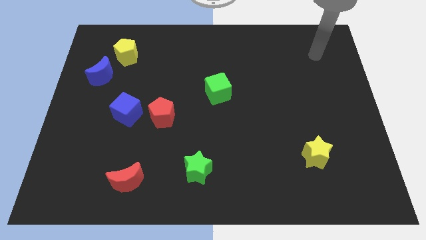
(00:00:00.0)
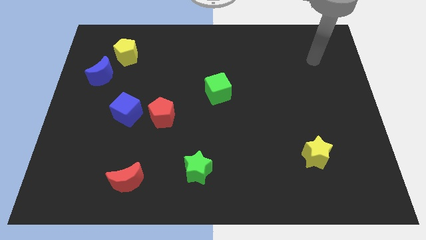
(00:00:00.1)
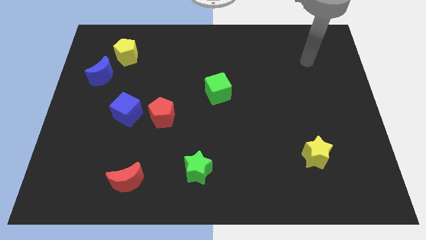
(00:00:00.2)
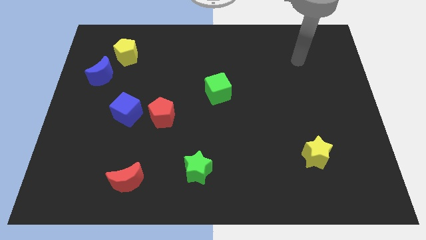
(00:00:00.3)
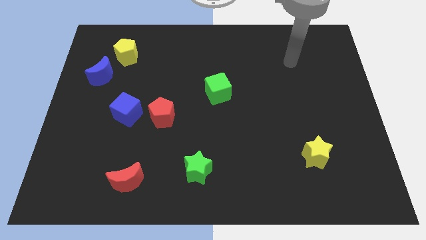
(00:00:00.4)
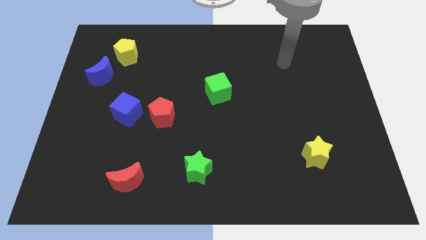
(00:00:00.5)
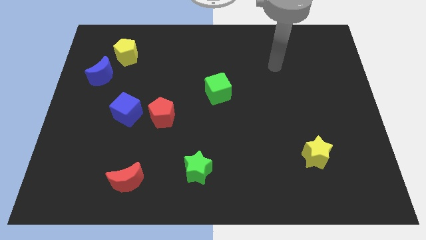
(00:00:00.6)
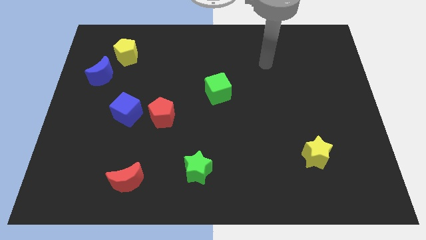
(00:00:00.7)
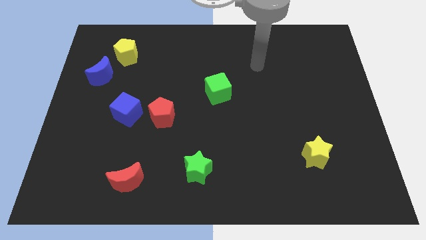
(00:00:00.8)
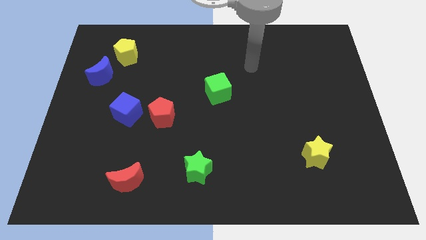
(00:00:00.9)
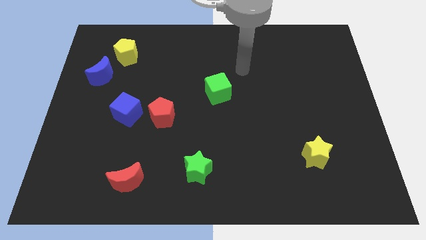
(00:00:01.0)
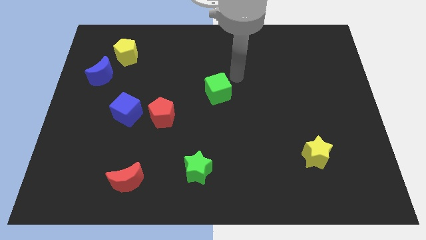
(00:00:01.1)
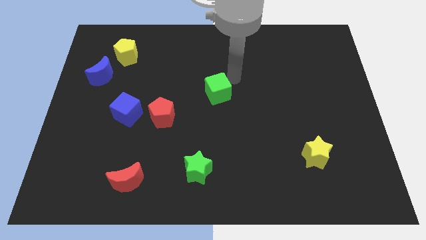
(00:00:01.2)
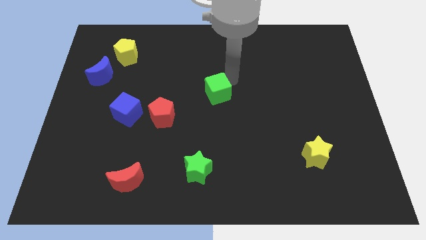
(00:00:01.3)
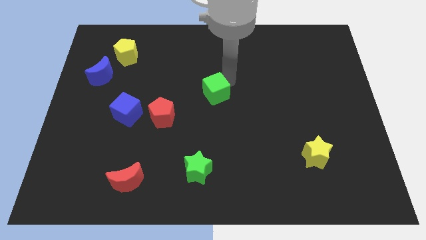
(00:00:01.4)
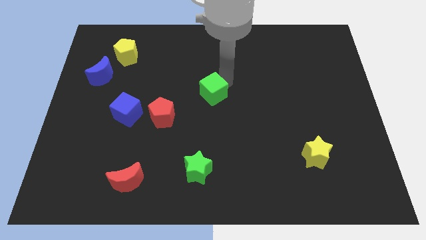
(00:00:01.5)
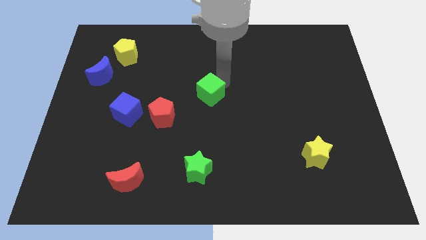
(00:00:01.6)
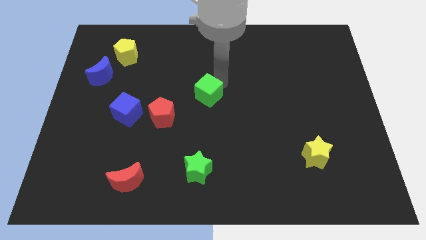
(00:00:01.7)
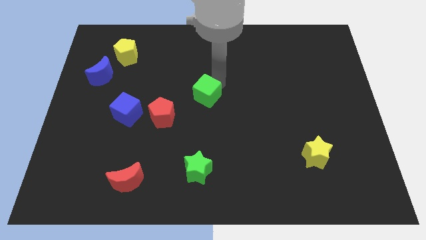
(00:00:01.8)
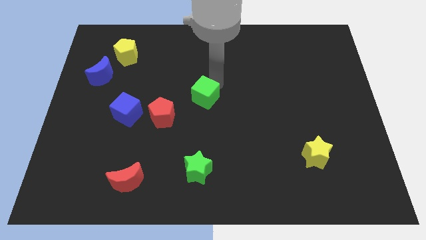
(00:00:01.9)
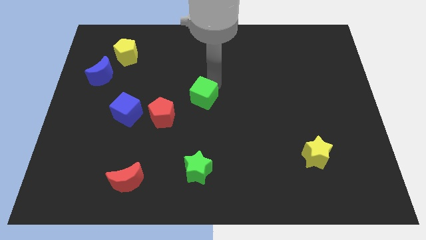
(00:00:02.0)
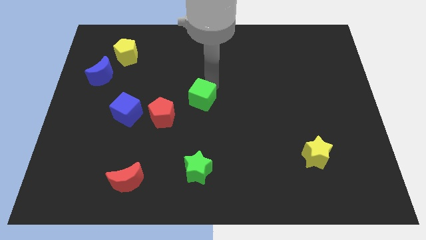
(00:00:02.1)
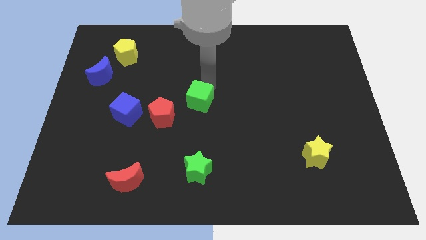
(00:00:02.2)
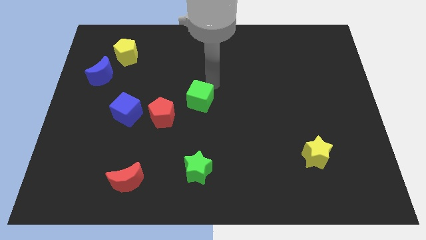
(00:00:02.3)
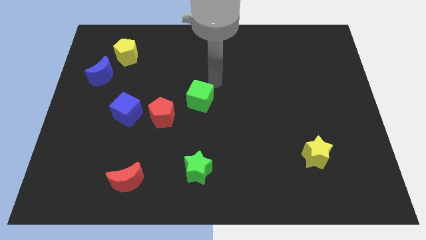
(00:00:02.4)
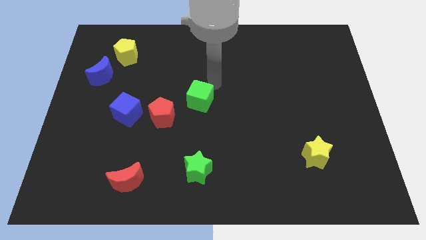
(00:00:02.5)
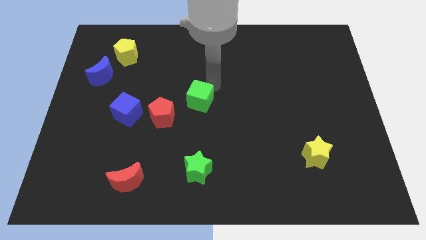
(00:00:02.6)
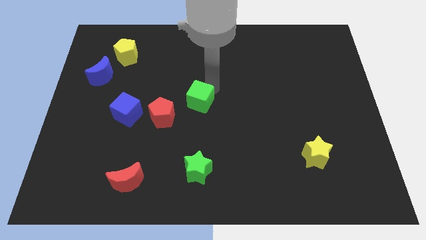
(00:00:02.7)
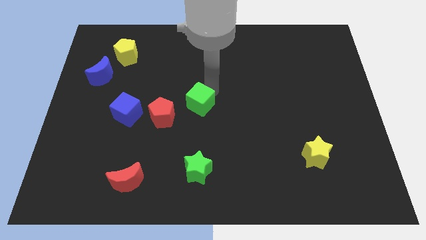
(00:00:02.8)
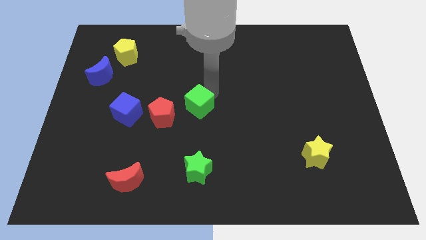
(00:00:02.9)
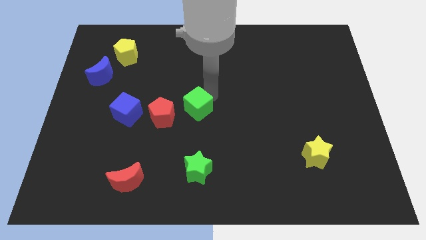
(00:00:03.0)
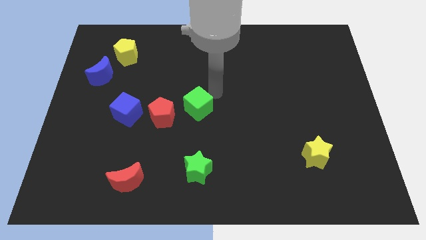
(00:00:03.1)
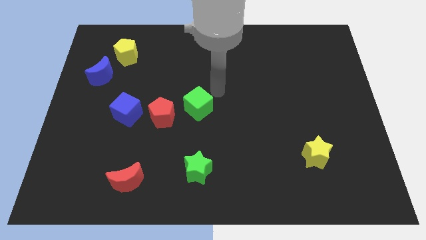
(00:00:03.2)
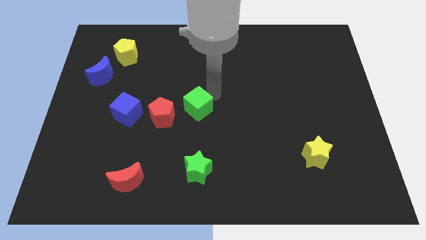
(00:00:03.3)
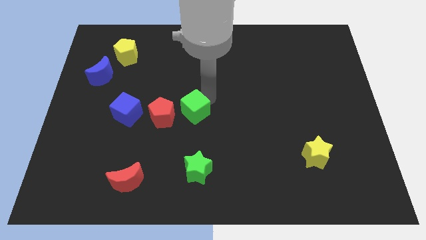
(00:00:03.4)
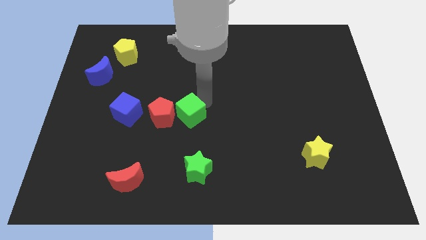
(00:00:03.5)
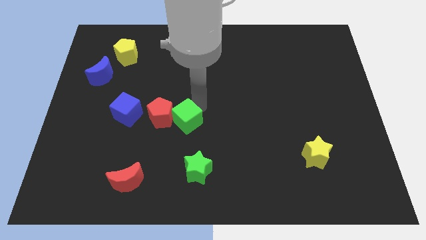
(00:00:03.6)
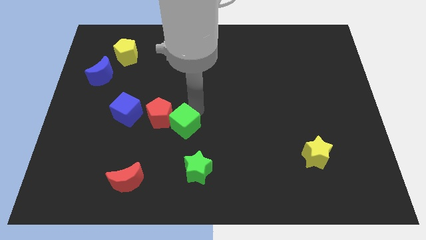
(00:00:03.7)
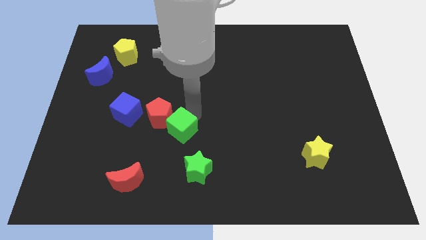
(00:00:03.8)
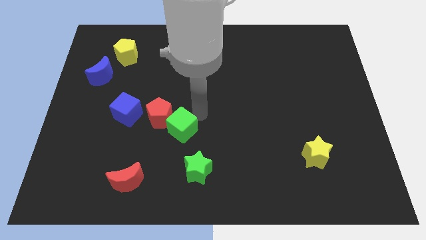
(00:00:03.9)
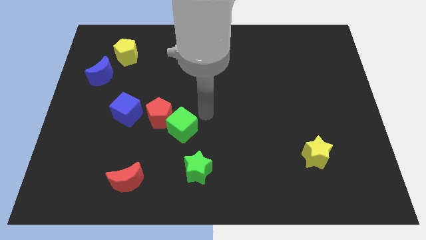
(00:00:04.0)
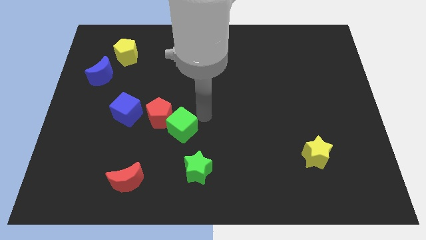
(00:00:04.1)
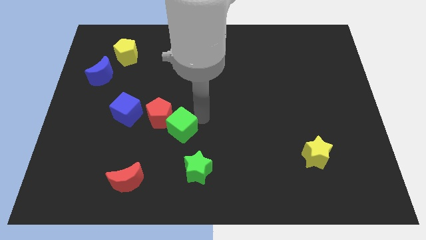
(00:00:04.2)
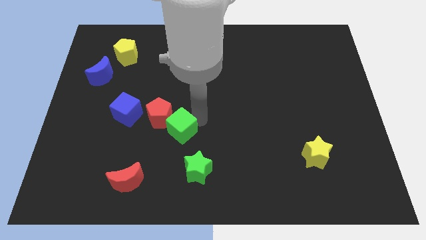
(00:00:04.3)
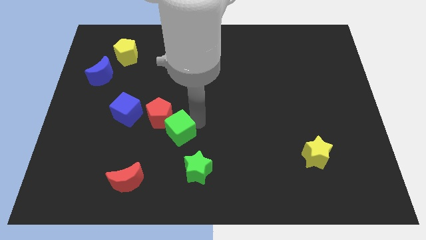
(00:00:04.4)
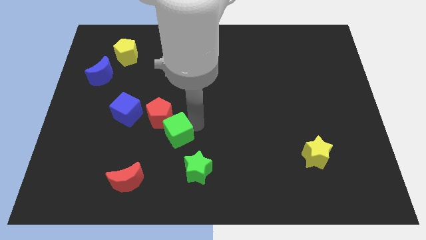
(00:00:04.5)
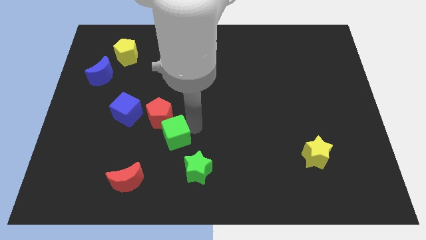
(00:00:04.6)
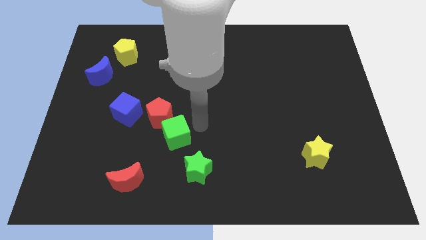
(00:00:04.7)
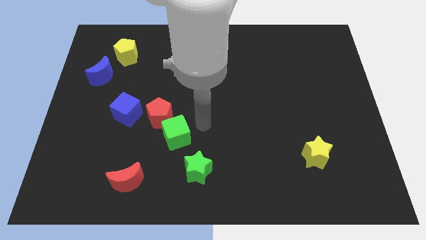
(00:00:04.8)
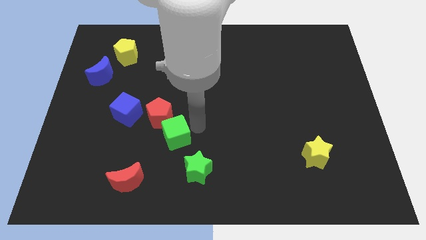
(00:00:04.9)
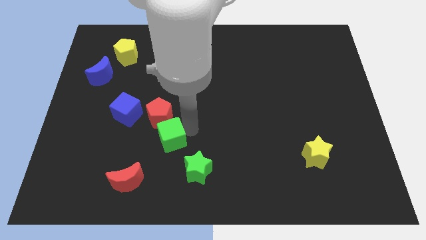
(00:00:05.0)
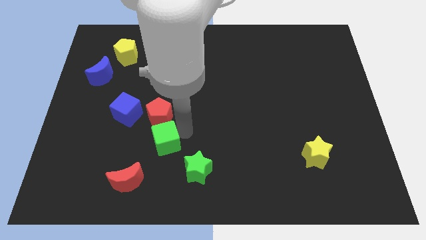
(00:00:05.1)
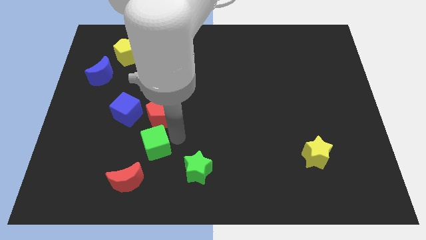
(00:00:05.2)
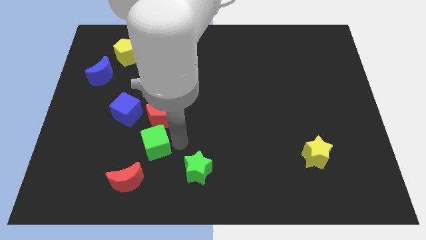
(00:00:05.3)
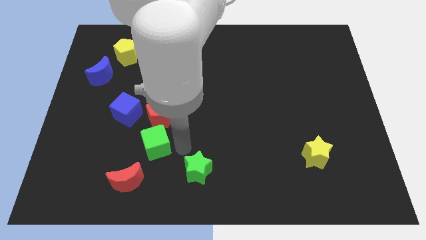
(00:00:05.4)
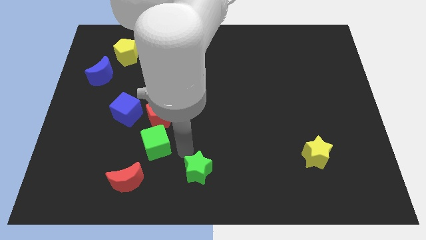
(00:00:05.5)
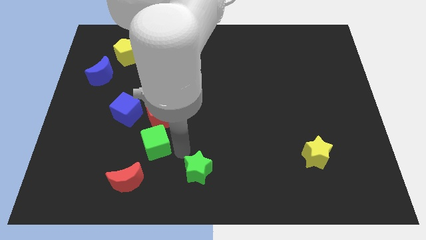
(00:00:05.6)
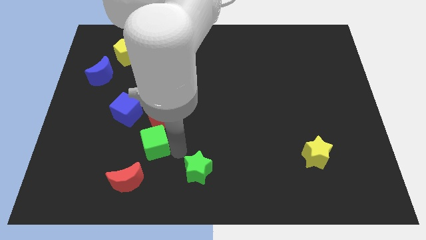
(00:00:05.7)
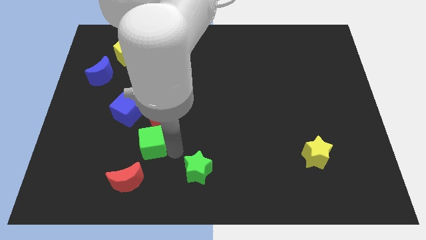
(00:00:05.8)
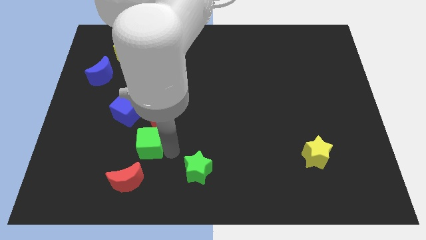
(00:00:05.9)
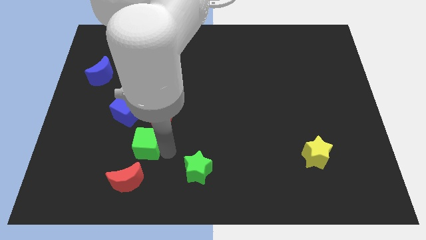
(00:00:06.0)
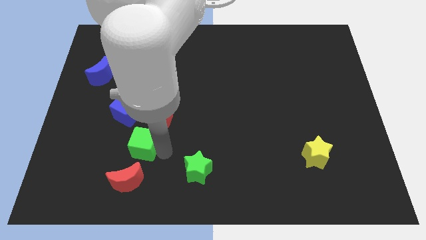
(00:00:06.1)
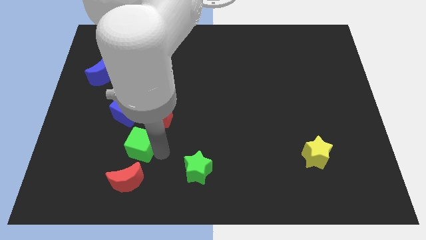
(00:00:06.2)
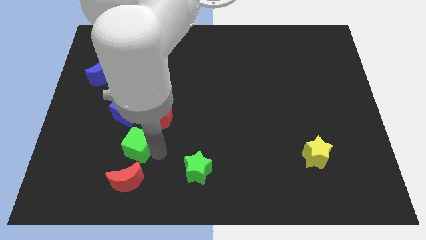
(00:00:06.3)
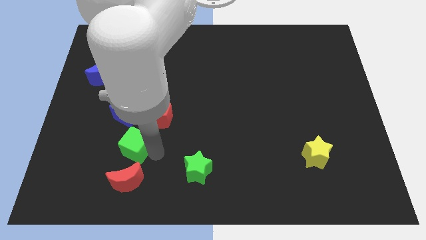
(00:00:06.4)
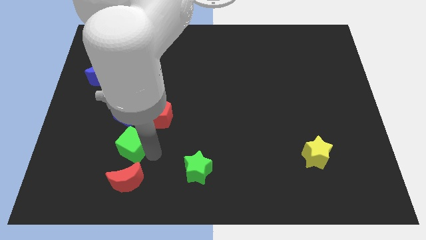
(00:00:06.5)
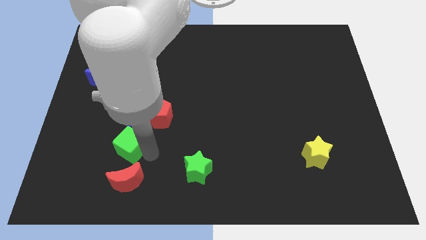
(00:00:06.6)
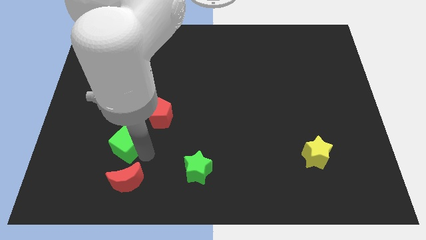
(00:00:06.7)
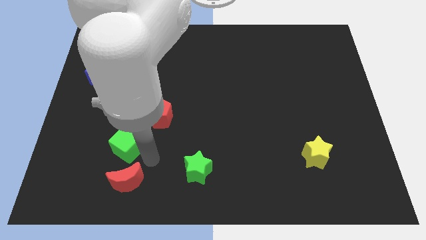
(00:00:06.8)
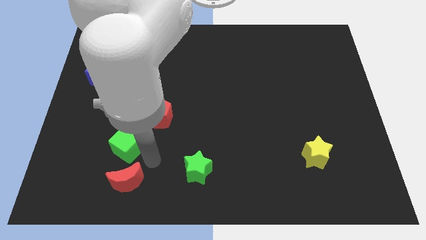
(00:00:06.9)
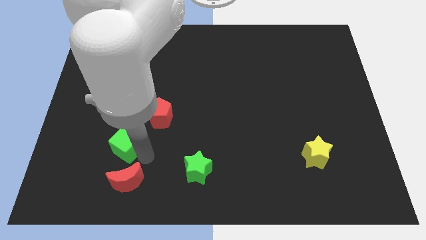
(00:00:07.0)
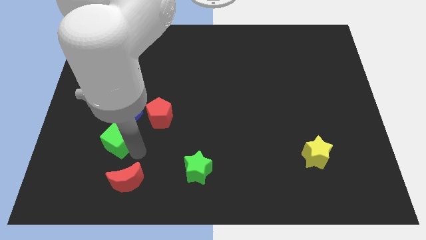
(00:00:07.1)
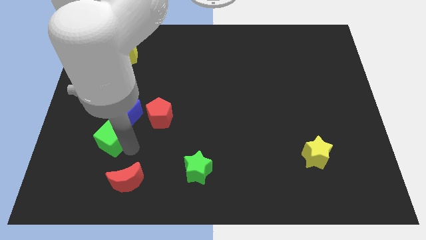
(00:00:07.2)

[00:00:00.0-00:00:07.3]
move the green cube diagonally down and to the left of the blue cube
